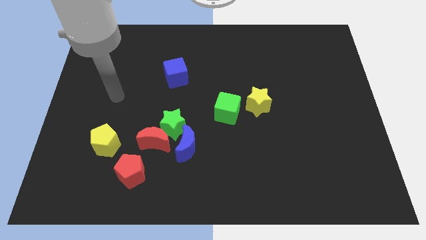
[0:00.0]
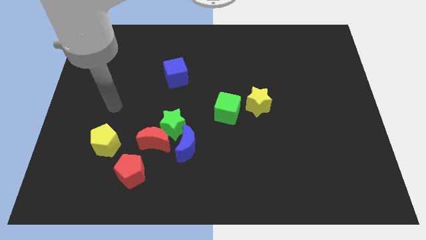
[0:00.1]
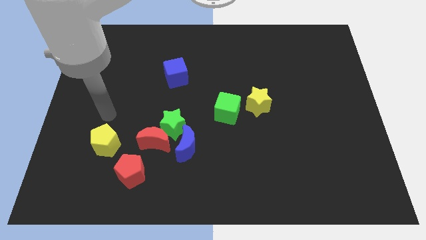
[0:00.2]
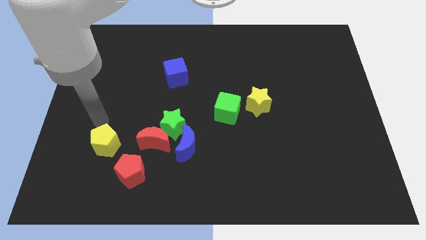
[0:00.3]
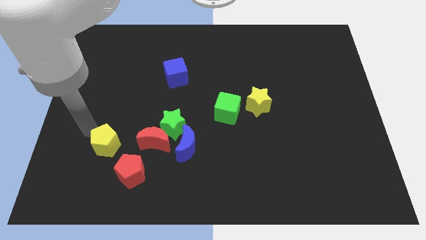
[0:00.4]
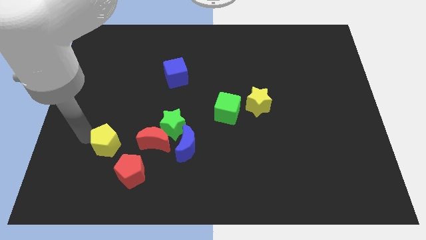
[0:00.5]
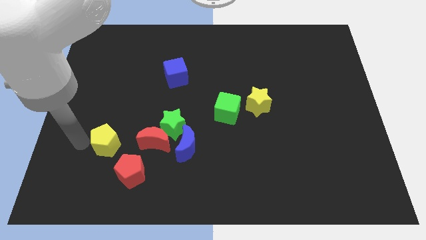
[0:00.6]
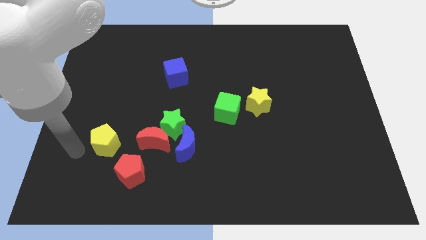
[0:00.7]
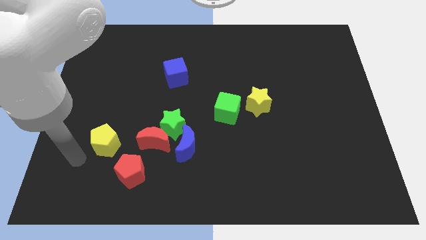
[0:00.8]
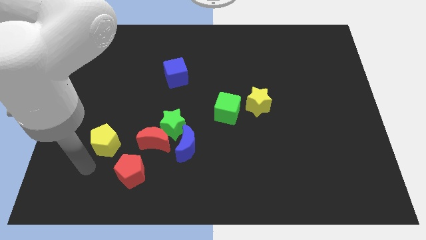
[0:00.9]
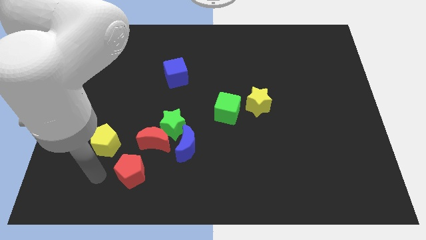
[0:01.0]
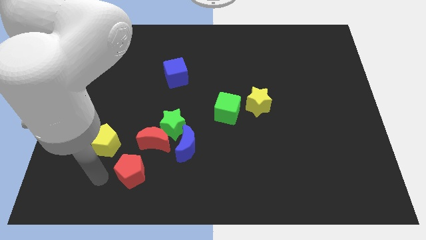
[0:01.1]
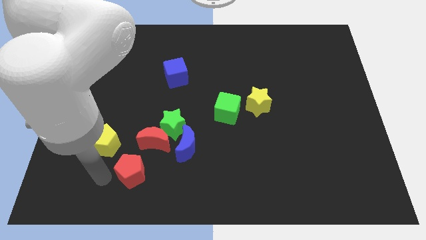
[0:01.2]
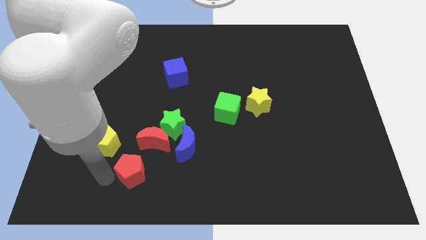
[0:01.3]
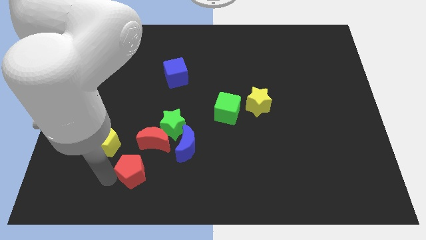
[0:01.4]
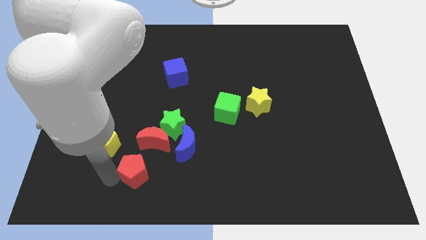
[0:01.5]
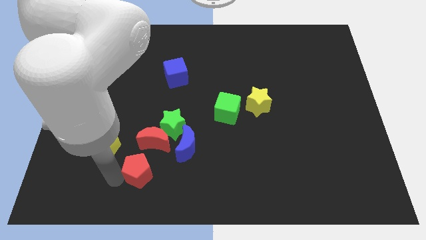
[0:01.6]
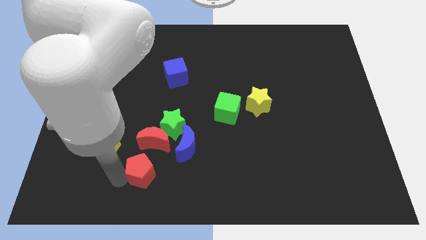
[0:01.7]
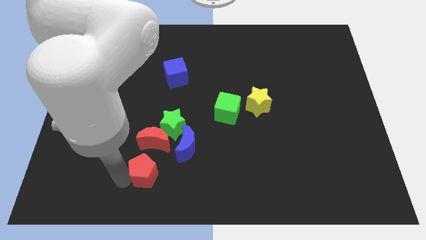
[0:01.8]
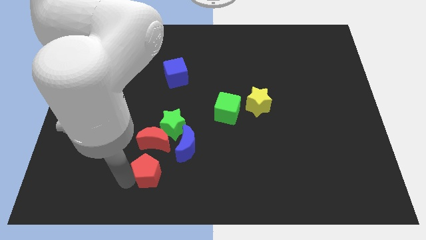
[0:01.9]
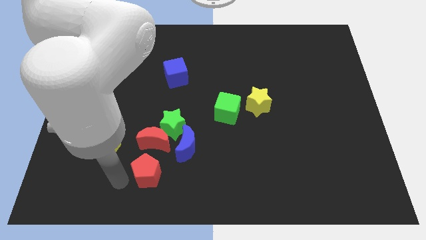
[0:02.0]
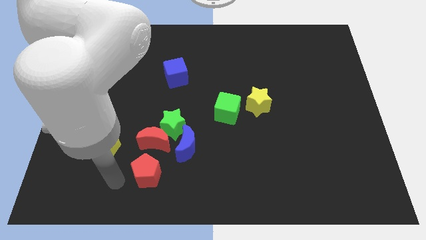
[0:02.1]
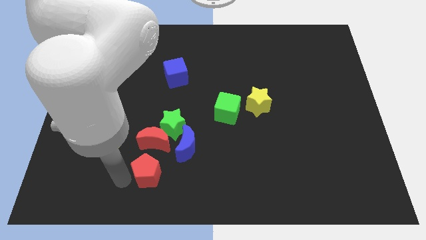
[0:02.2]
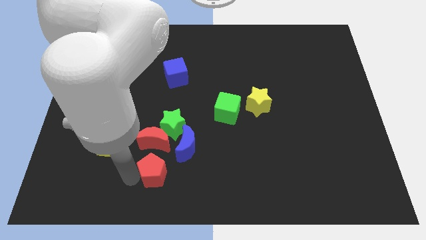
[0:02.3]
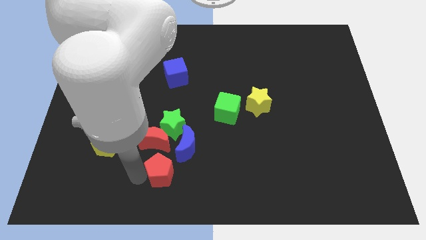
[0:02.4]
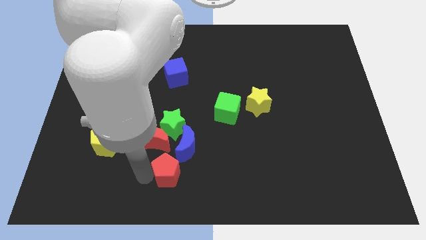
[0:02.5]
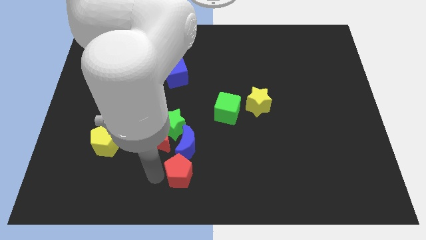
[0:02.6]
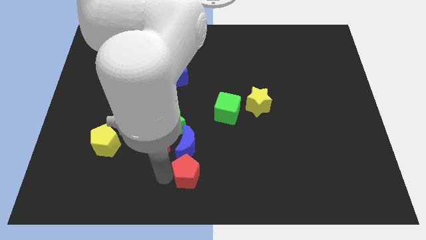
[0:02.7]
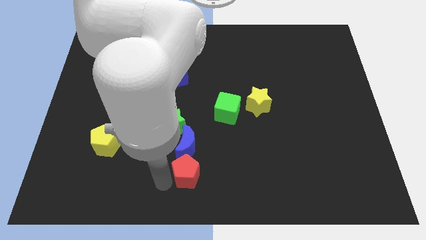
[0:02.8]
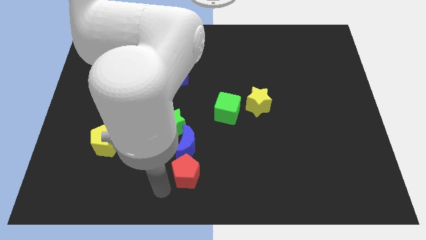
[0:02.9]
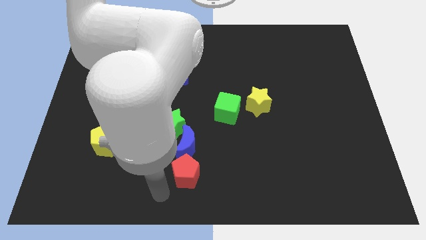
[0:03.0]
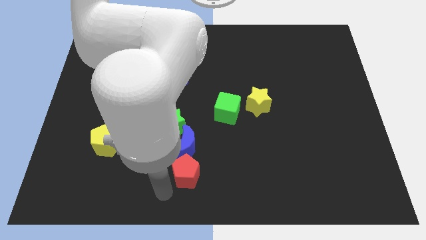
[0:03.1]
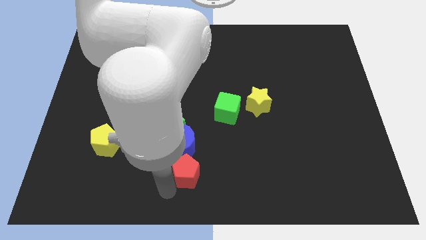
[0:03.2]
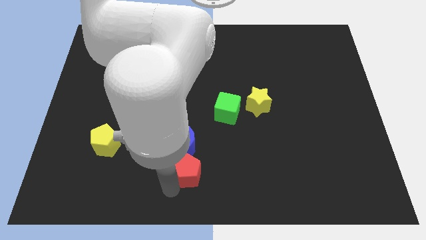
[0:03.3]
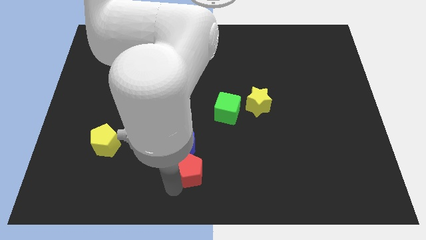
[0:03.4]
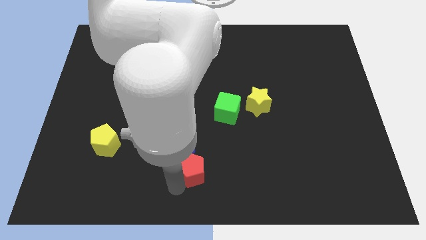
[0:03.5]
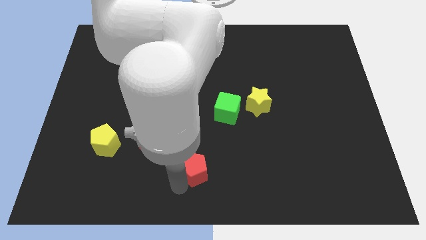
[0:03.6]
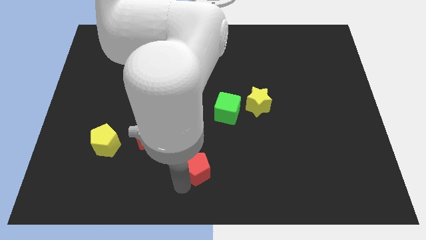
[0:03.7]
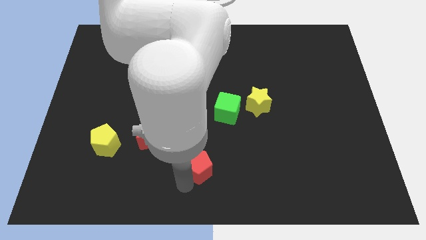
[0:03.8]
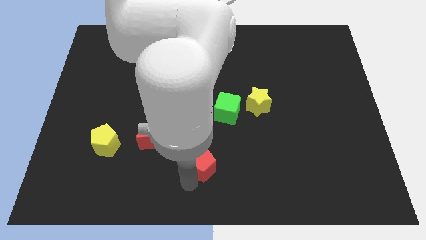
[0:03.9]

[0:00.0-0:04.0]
push the red pentagon slightly diagonally upwards and to the right

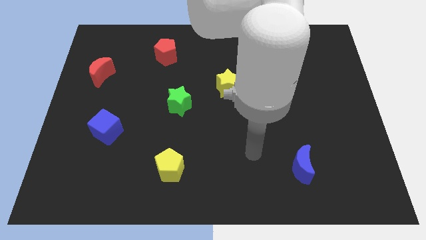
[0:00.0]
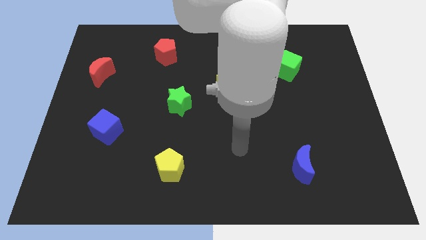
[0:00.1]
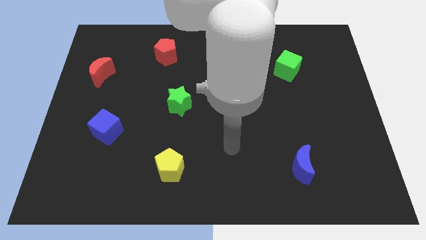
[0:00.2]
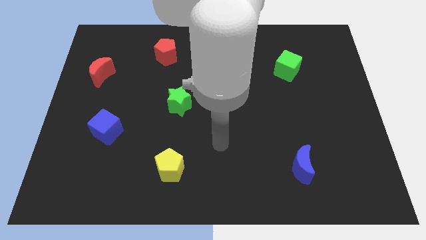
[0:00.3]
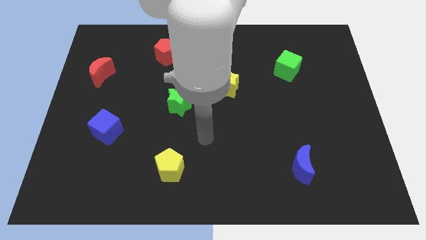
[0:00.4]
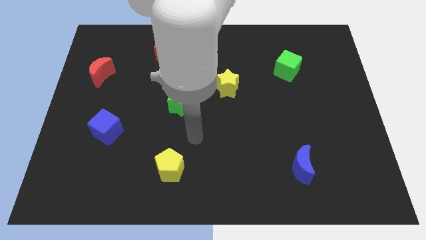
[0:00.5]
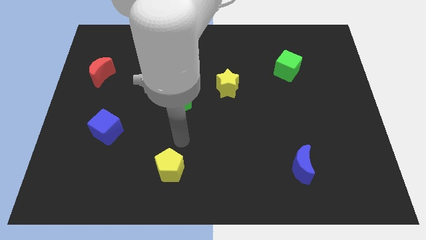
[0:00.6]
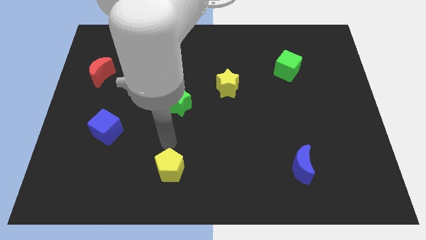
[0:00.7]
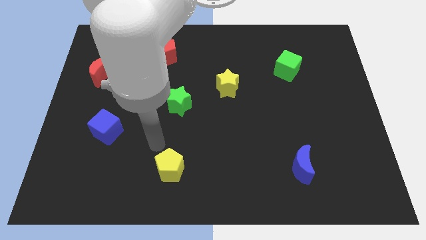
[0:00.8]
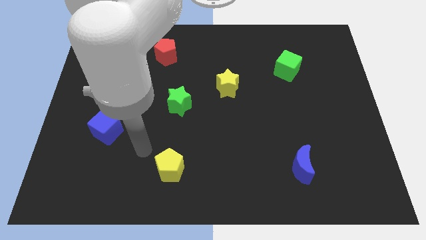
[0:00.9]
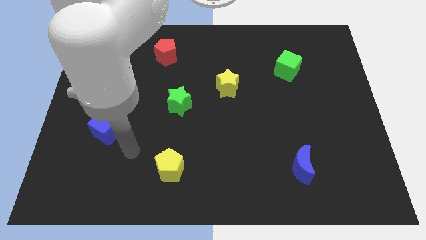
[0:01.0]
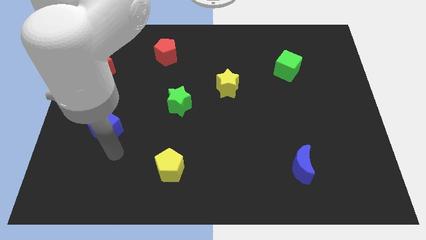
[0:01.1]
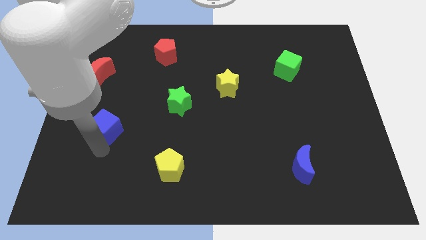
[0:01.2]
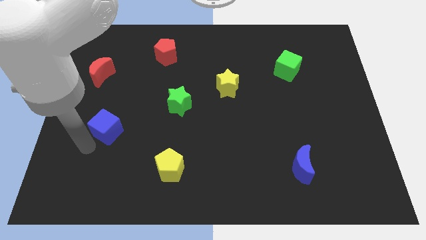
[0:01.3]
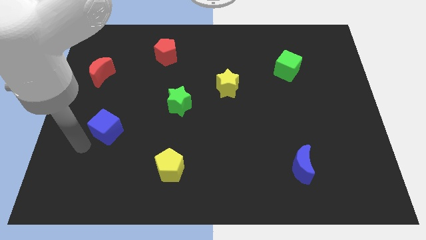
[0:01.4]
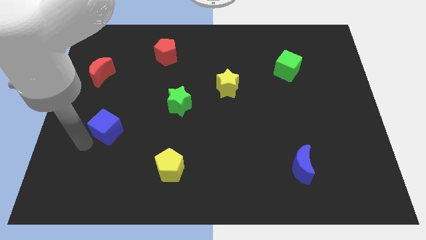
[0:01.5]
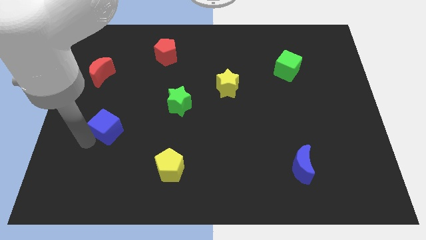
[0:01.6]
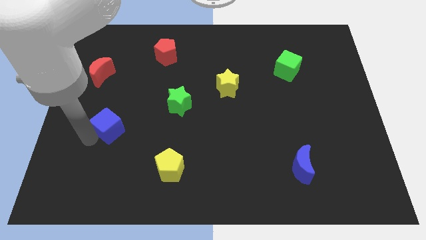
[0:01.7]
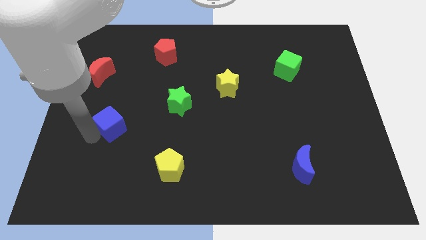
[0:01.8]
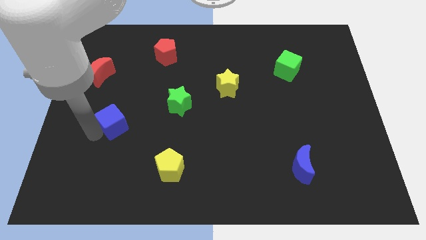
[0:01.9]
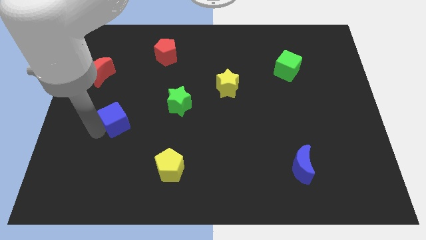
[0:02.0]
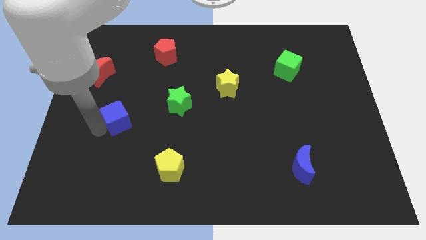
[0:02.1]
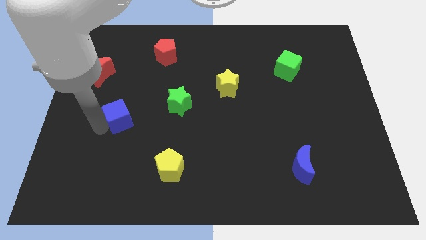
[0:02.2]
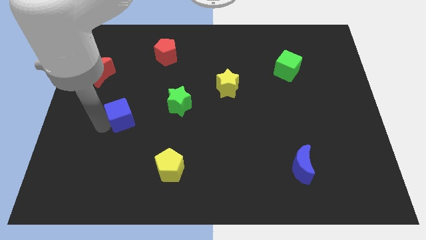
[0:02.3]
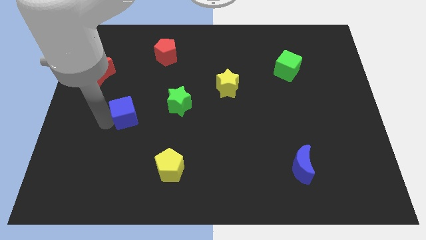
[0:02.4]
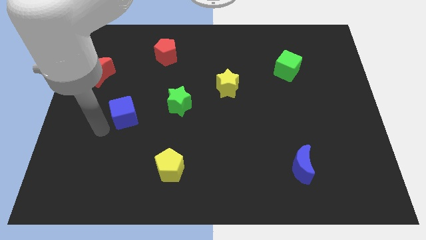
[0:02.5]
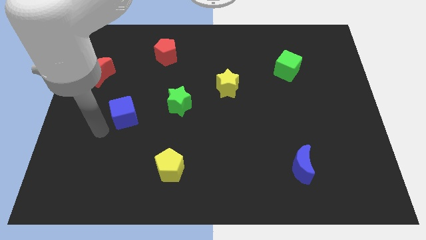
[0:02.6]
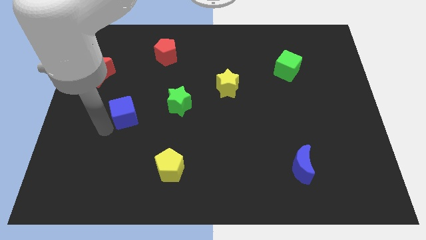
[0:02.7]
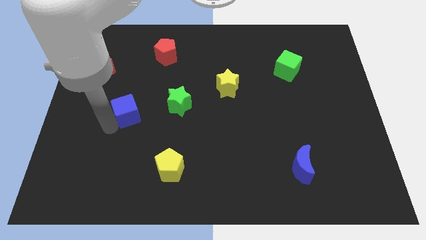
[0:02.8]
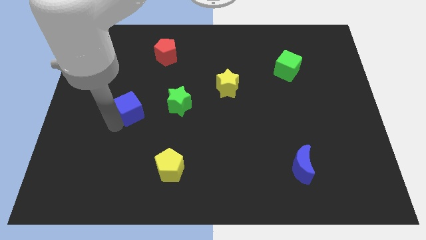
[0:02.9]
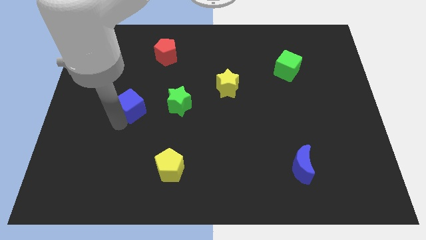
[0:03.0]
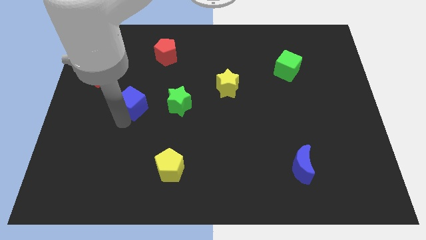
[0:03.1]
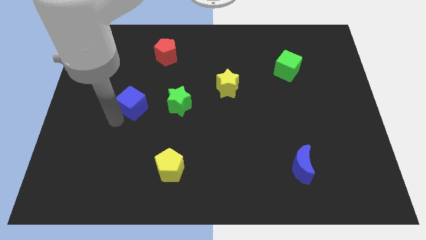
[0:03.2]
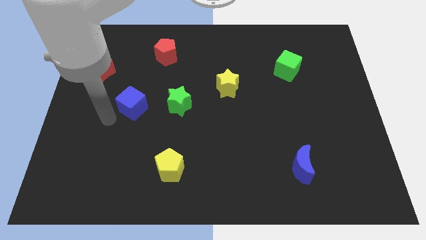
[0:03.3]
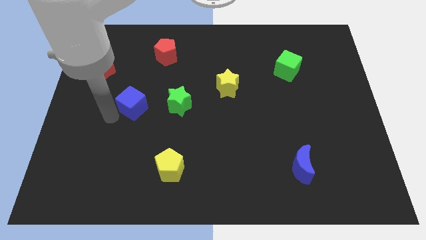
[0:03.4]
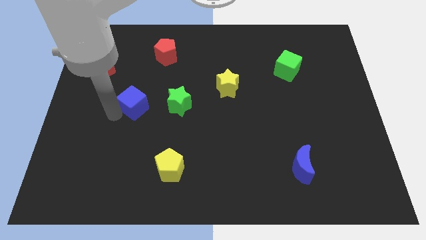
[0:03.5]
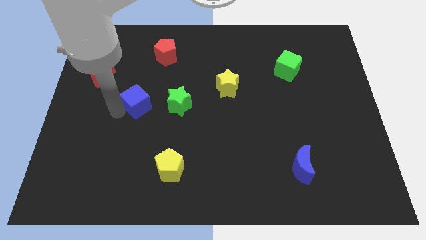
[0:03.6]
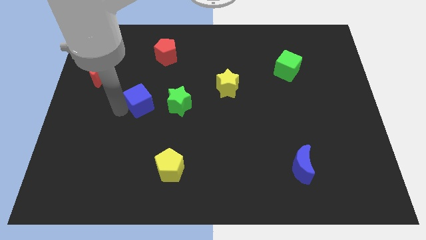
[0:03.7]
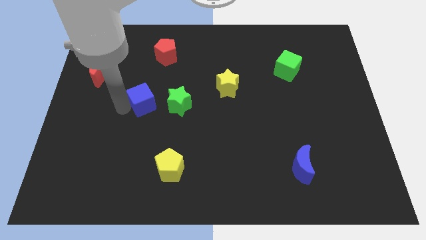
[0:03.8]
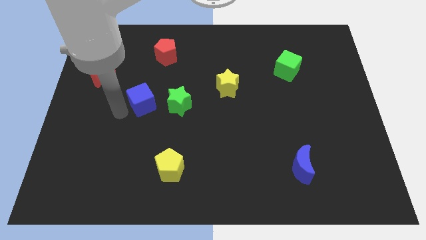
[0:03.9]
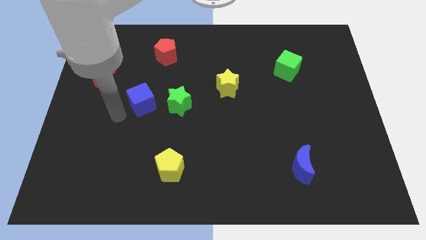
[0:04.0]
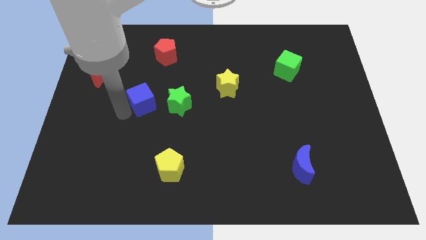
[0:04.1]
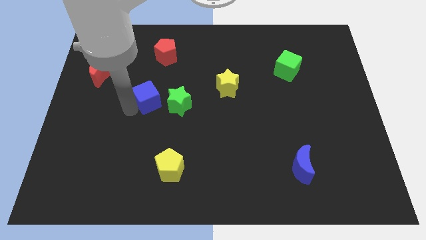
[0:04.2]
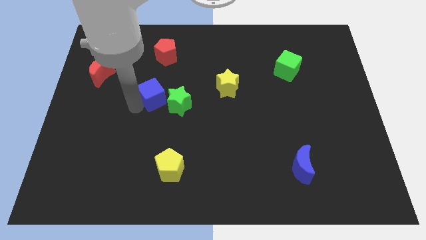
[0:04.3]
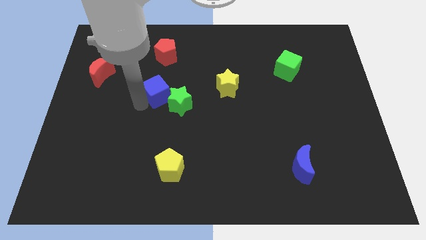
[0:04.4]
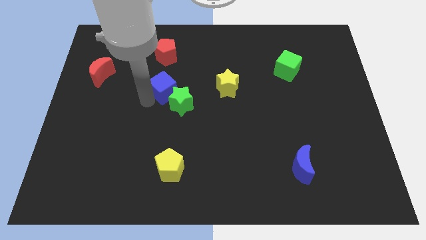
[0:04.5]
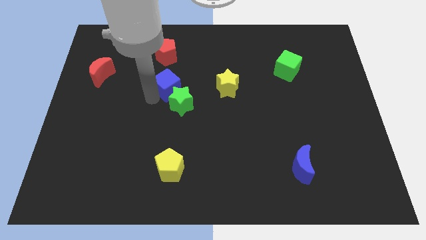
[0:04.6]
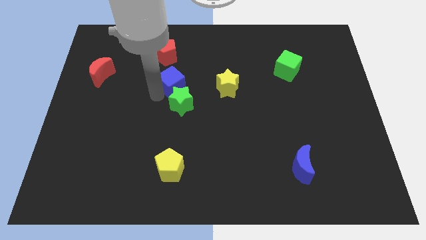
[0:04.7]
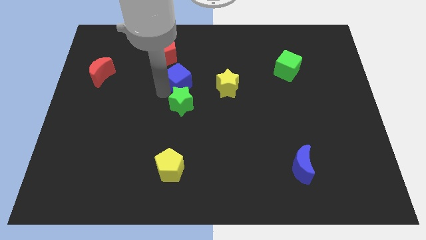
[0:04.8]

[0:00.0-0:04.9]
move the blue cube diagonally upwards and to the right
